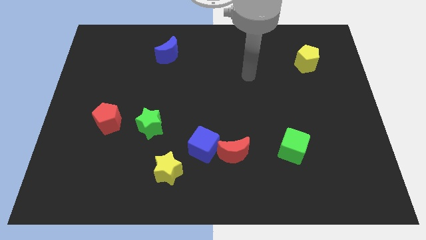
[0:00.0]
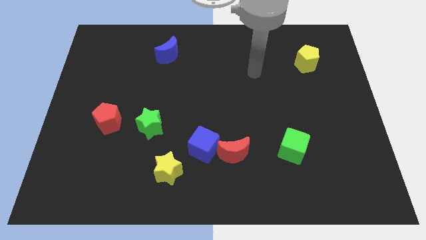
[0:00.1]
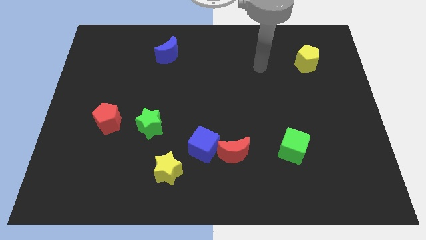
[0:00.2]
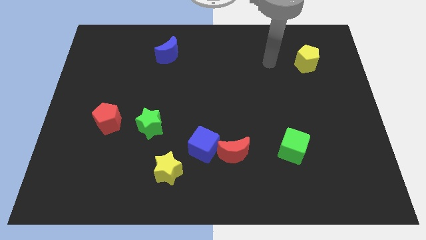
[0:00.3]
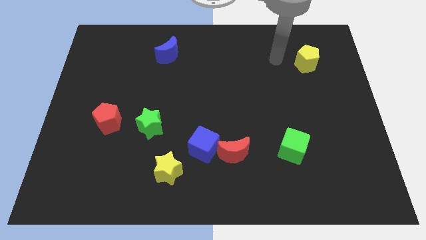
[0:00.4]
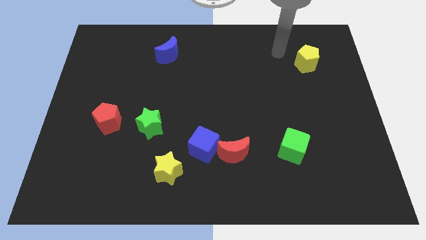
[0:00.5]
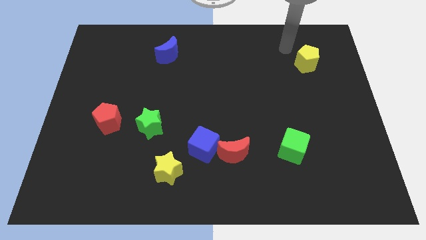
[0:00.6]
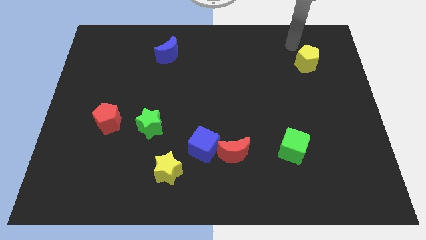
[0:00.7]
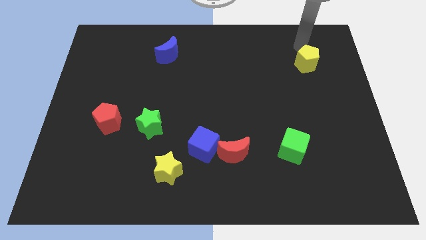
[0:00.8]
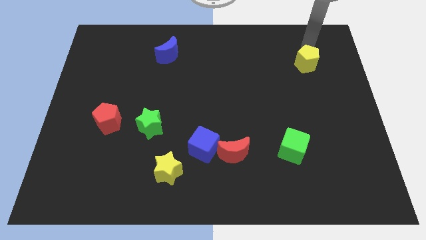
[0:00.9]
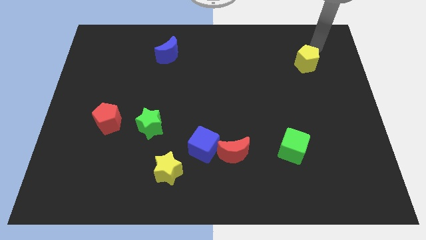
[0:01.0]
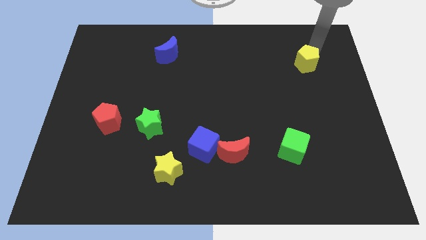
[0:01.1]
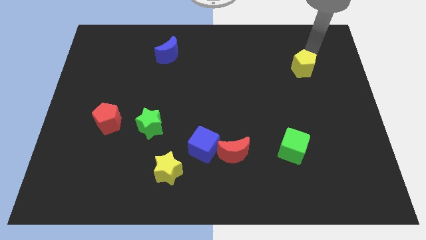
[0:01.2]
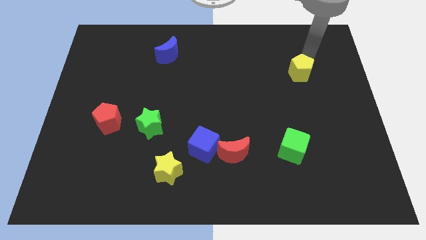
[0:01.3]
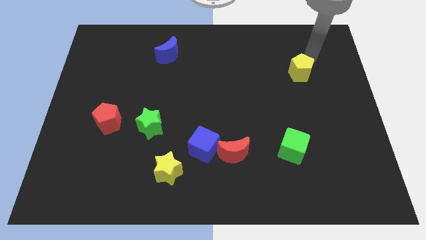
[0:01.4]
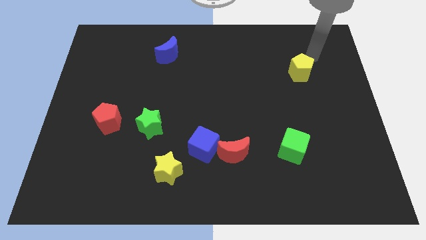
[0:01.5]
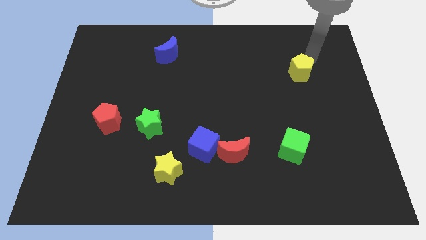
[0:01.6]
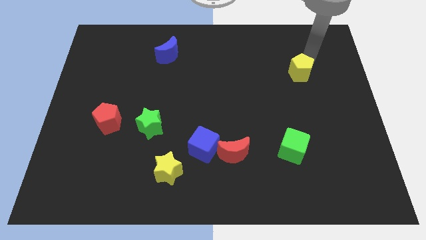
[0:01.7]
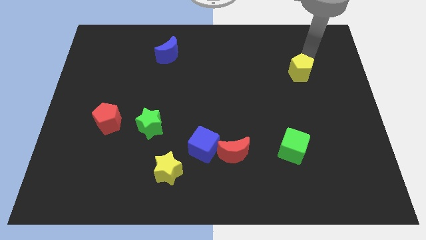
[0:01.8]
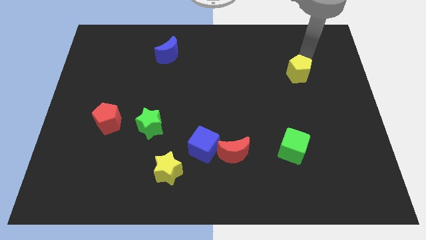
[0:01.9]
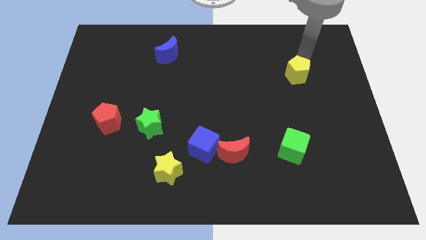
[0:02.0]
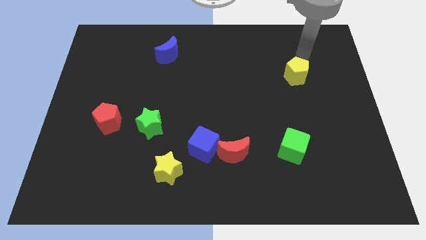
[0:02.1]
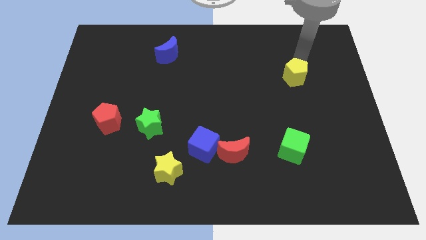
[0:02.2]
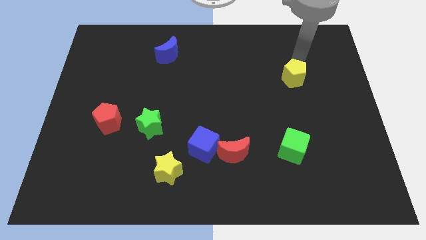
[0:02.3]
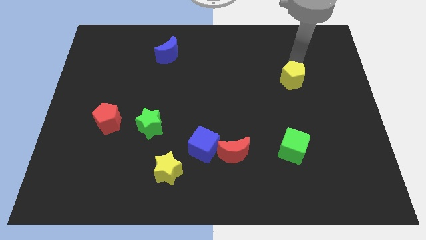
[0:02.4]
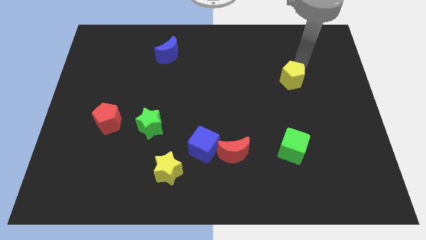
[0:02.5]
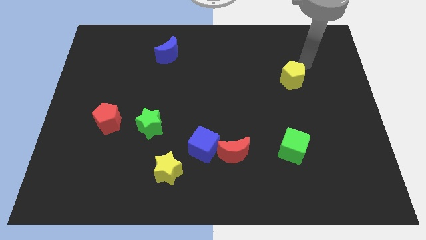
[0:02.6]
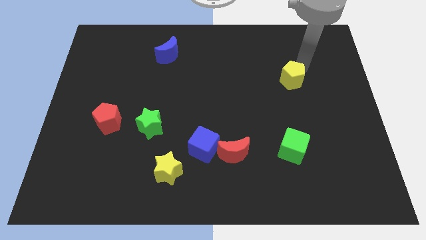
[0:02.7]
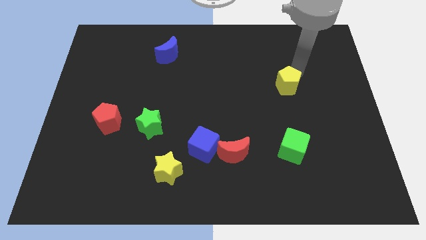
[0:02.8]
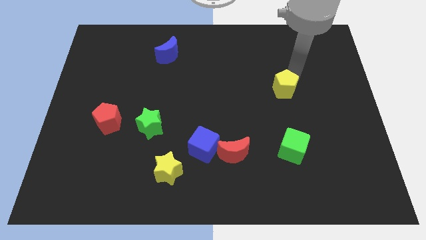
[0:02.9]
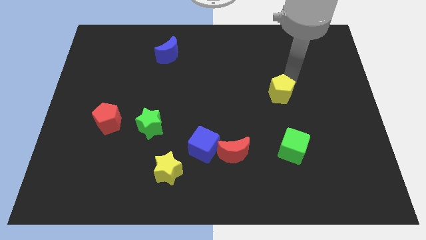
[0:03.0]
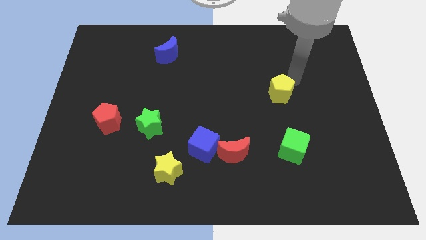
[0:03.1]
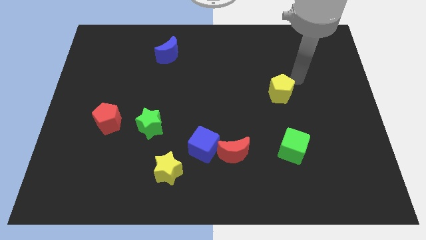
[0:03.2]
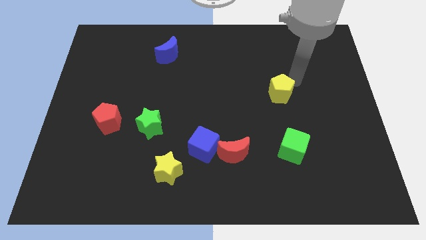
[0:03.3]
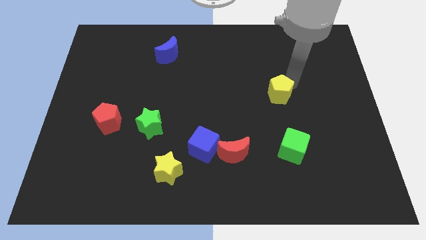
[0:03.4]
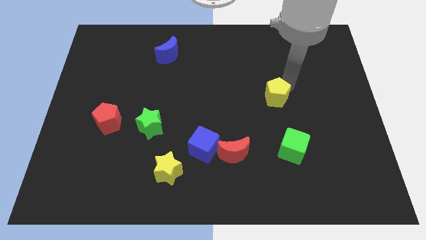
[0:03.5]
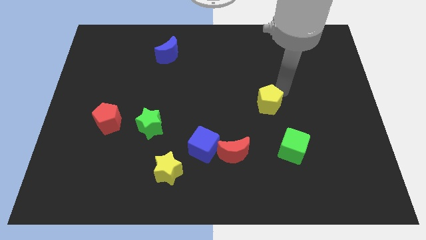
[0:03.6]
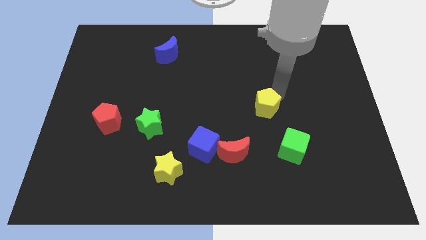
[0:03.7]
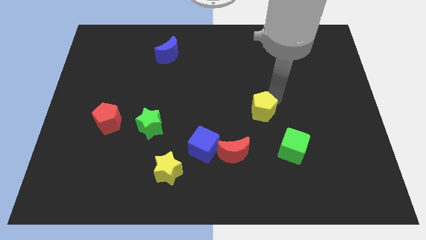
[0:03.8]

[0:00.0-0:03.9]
push the yellow pentagon downwards and left

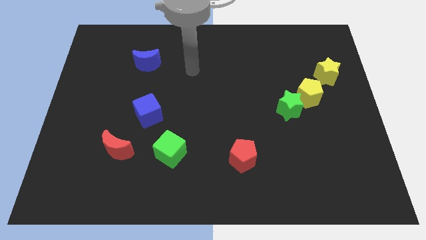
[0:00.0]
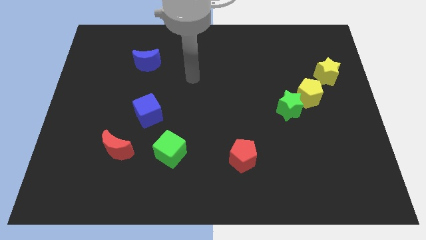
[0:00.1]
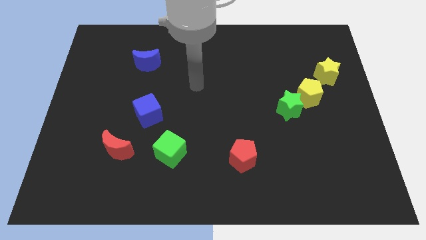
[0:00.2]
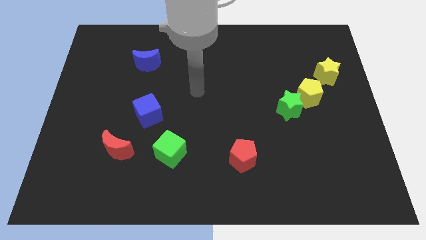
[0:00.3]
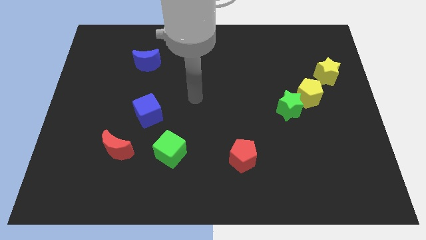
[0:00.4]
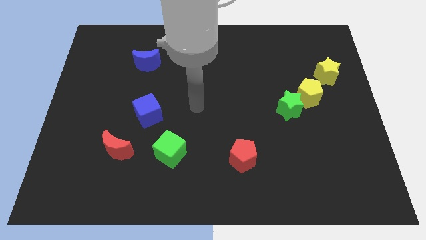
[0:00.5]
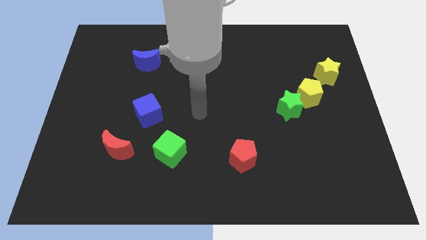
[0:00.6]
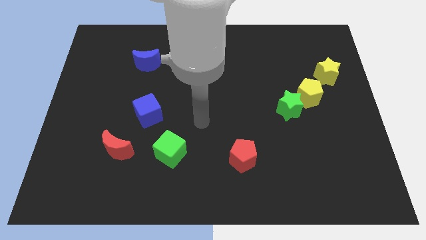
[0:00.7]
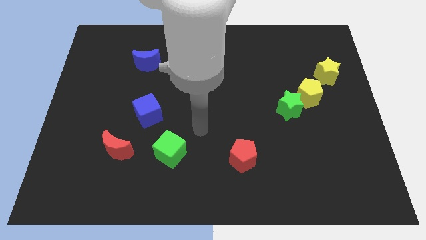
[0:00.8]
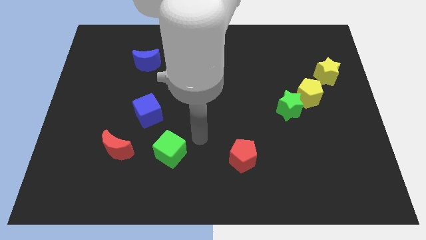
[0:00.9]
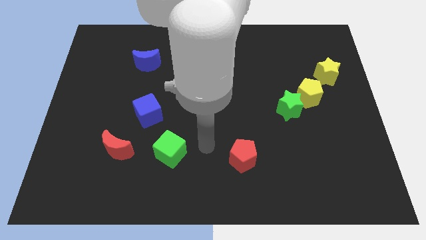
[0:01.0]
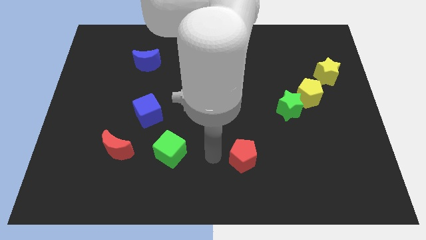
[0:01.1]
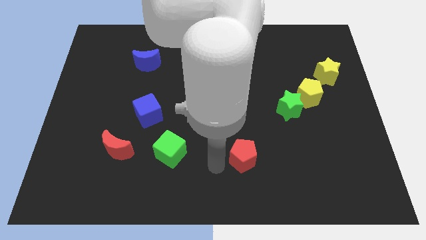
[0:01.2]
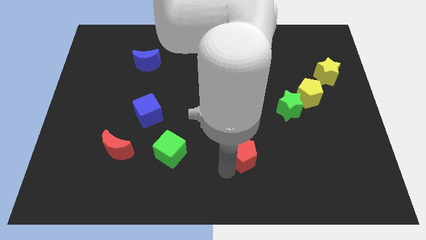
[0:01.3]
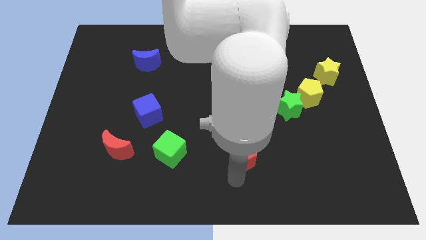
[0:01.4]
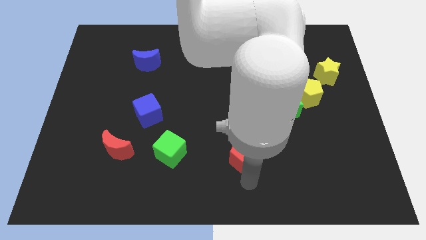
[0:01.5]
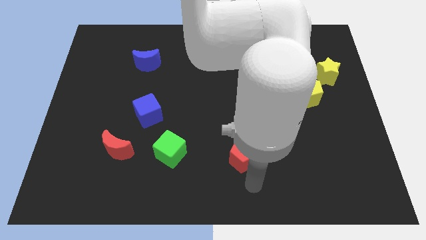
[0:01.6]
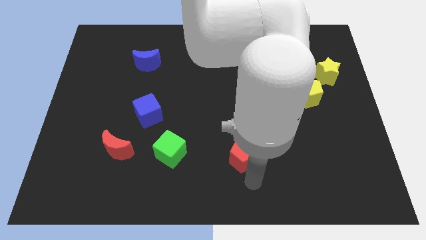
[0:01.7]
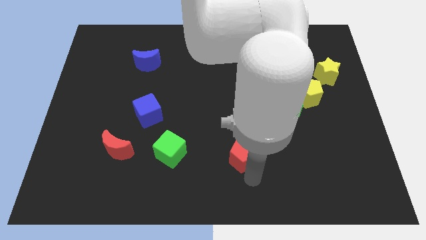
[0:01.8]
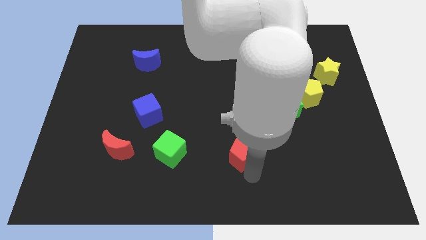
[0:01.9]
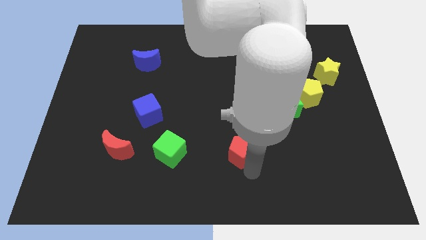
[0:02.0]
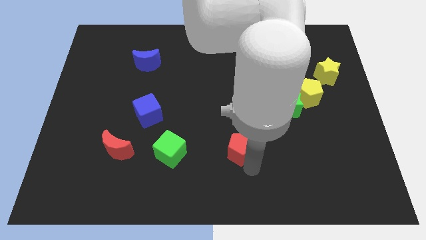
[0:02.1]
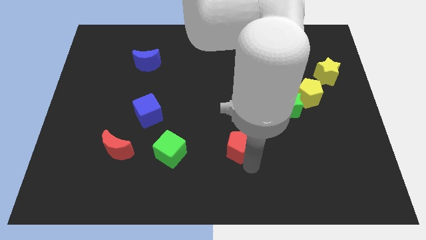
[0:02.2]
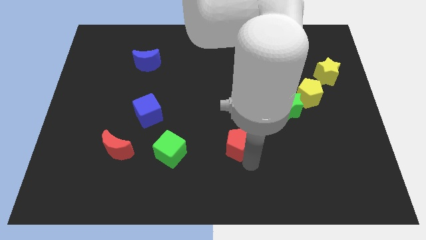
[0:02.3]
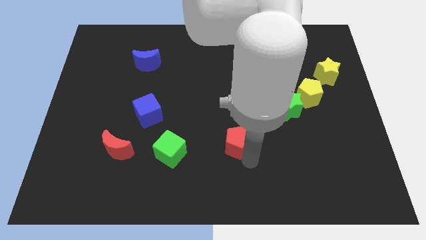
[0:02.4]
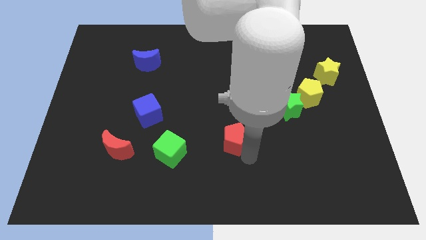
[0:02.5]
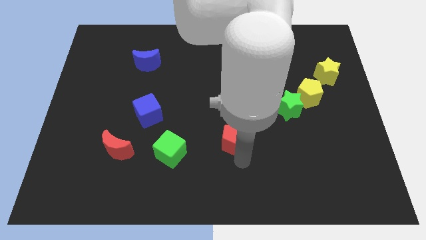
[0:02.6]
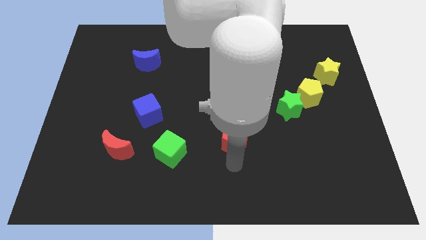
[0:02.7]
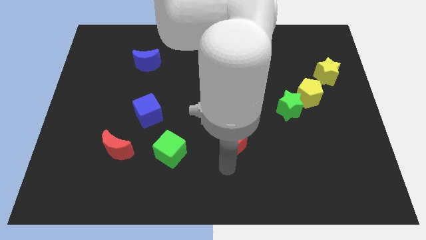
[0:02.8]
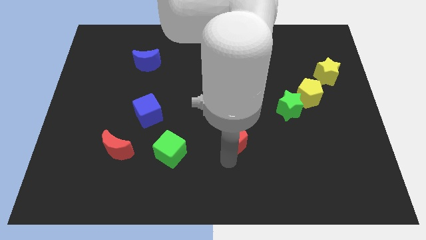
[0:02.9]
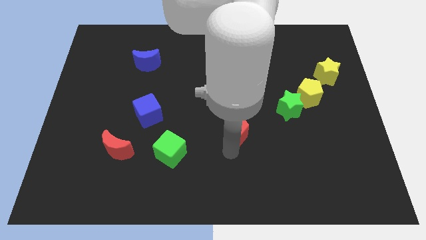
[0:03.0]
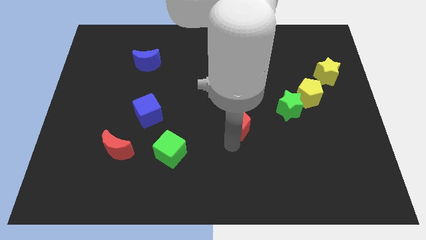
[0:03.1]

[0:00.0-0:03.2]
push the red pentagon up slightly

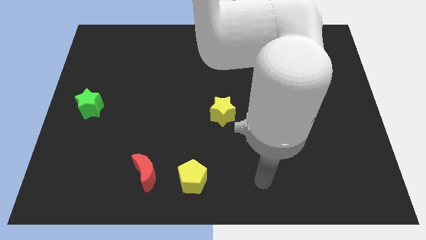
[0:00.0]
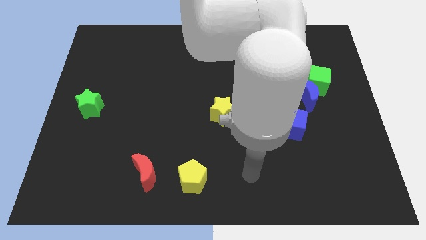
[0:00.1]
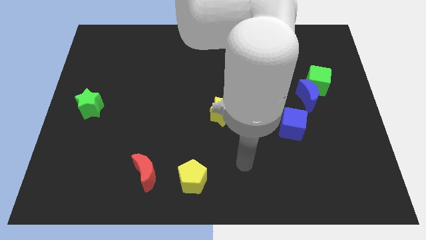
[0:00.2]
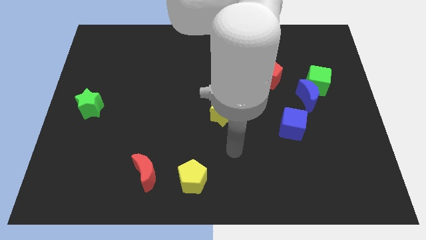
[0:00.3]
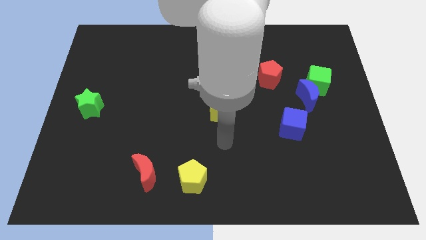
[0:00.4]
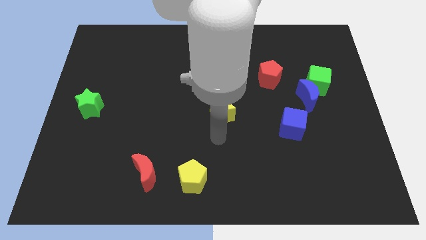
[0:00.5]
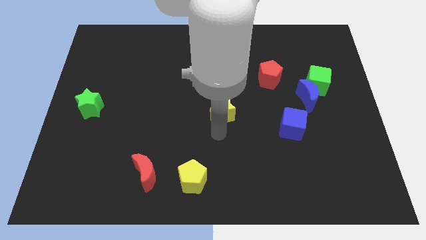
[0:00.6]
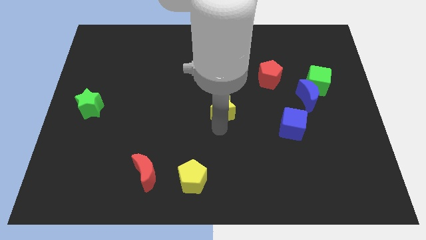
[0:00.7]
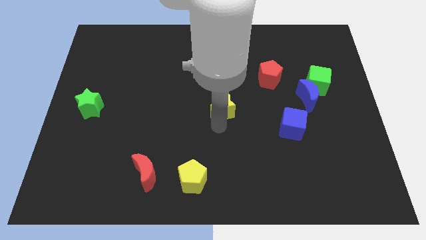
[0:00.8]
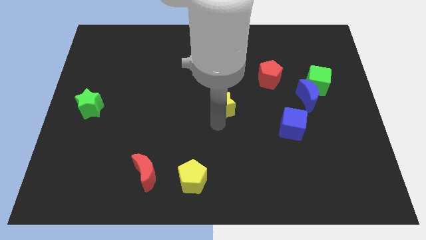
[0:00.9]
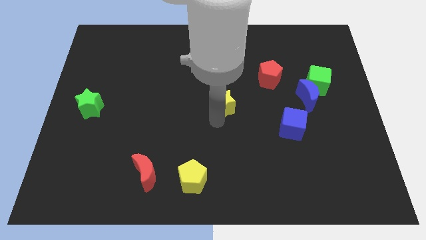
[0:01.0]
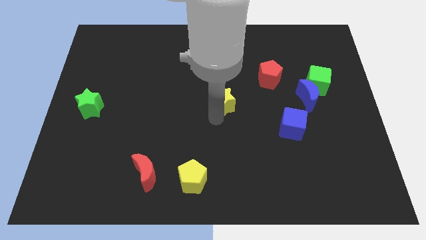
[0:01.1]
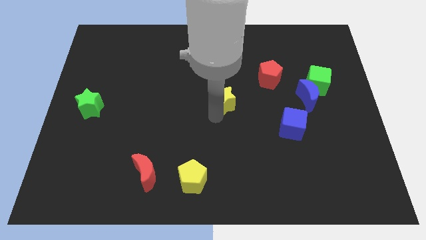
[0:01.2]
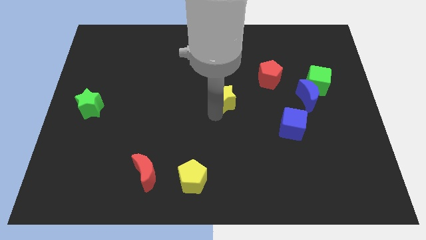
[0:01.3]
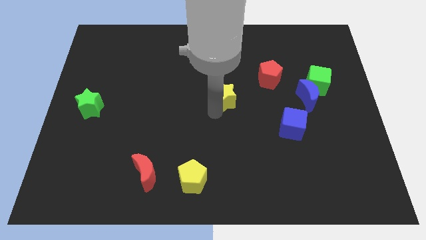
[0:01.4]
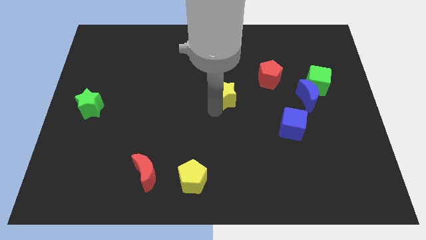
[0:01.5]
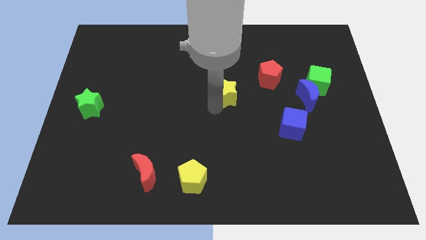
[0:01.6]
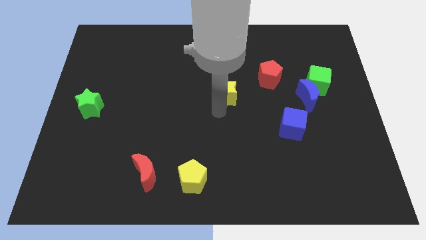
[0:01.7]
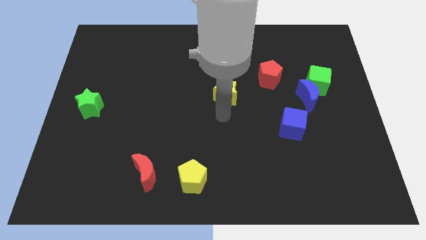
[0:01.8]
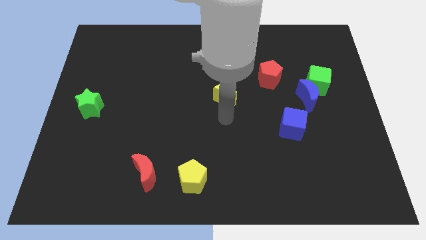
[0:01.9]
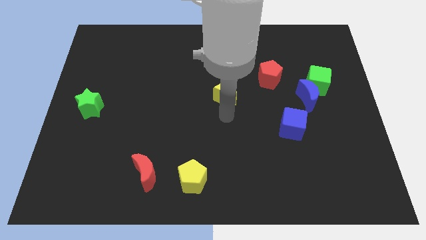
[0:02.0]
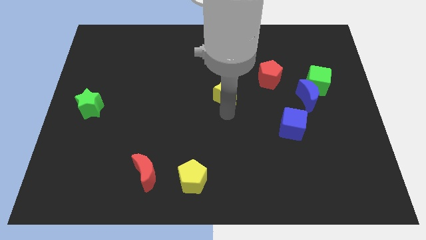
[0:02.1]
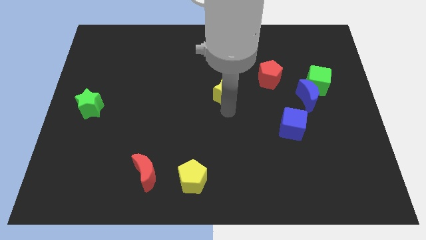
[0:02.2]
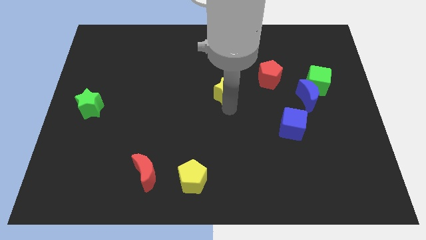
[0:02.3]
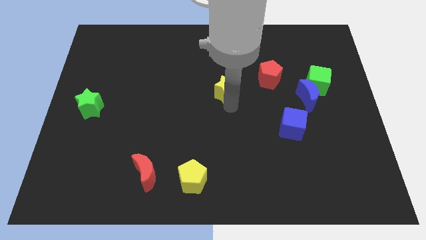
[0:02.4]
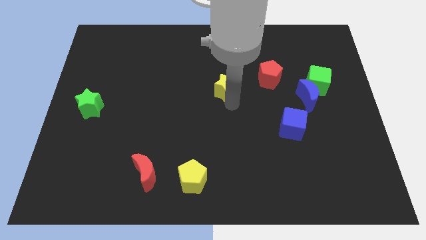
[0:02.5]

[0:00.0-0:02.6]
move the yellow star slightly upwards
